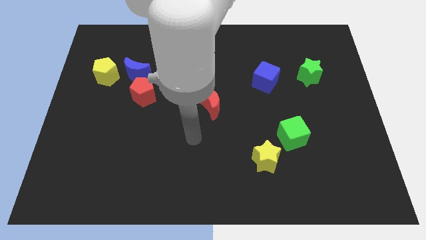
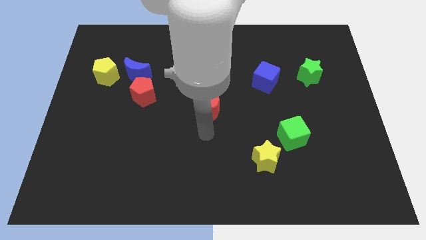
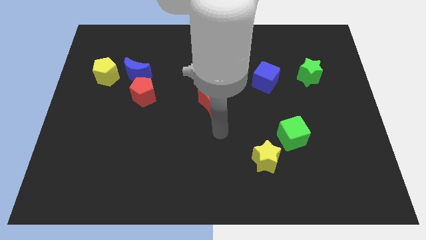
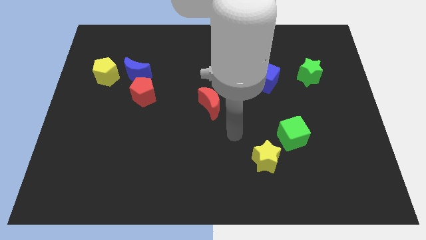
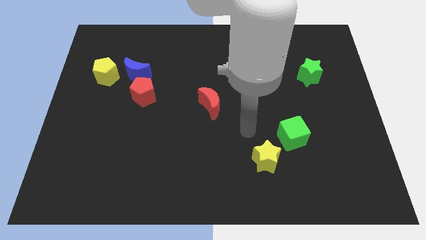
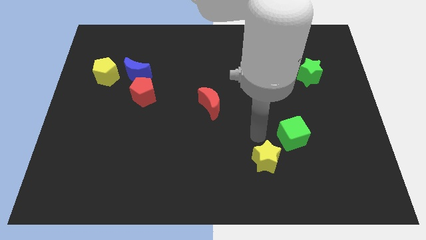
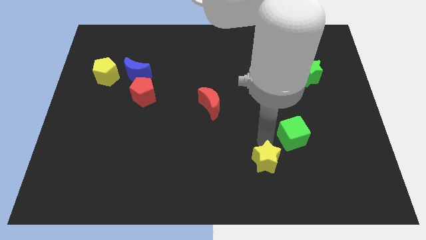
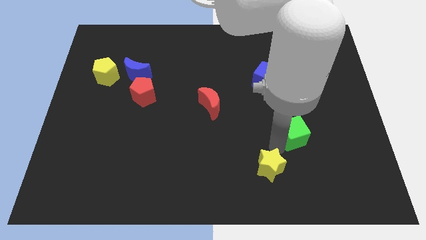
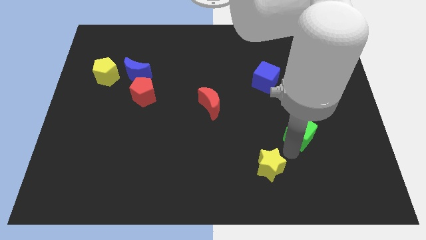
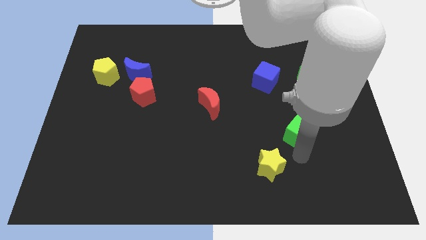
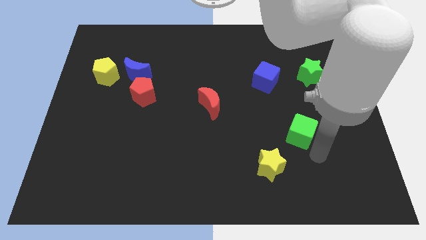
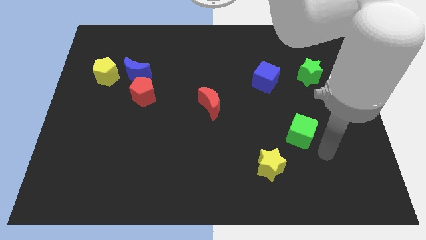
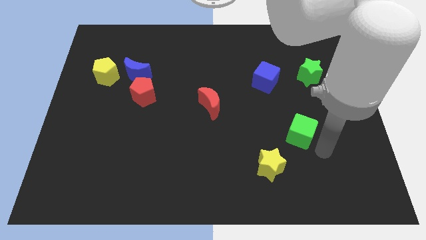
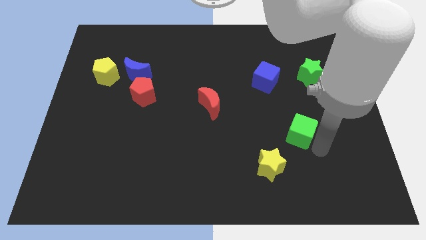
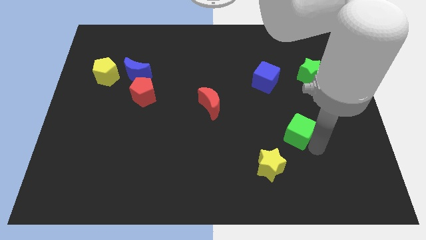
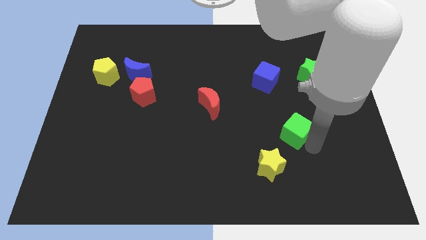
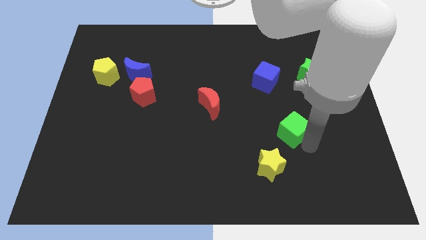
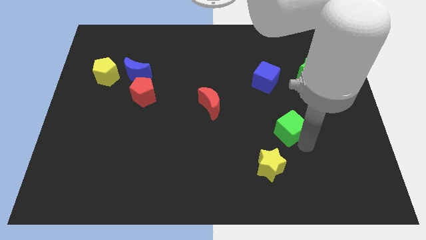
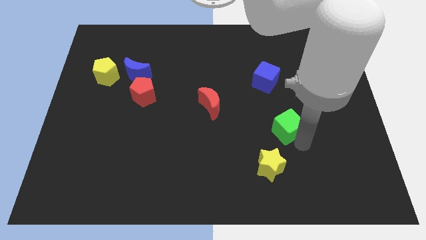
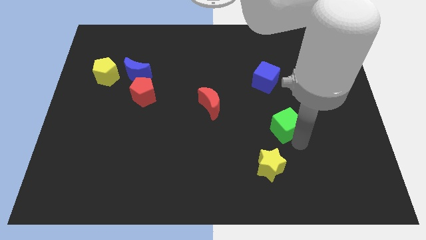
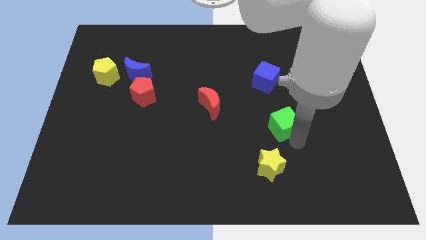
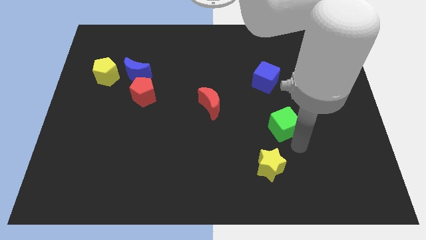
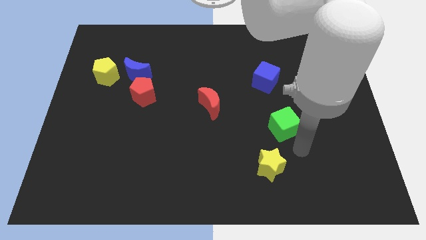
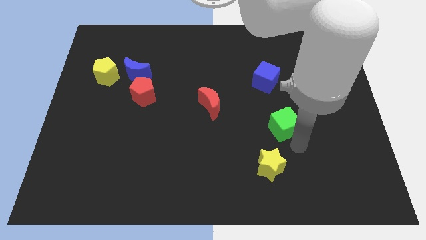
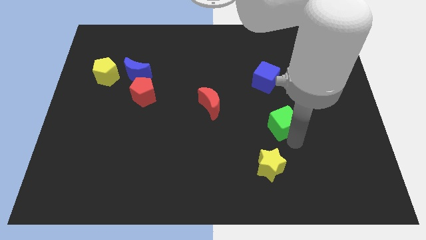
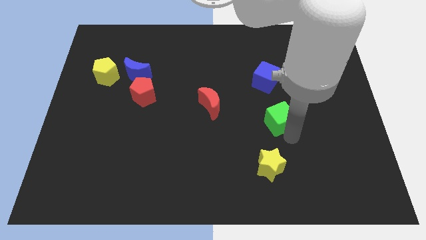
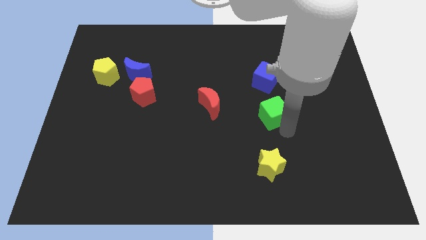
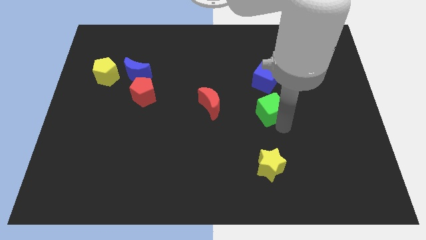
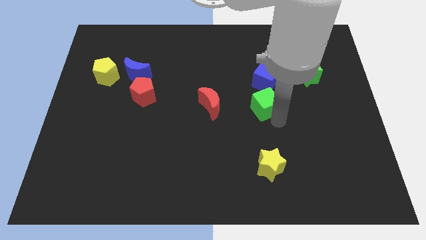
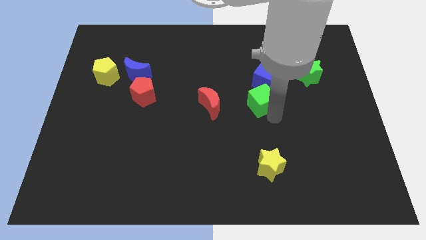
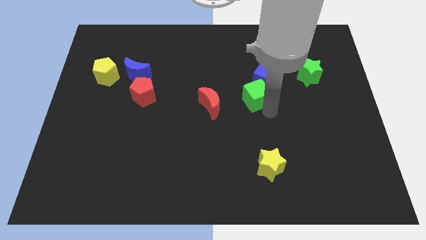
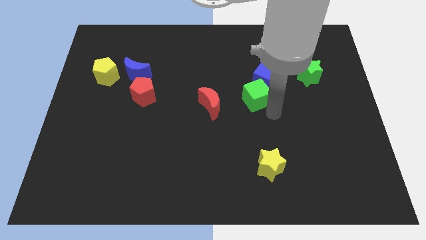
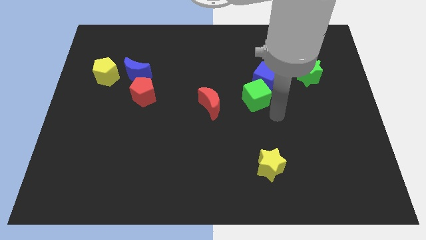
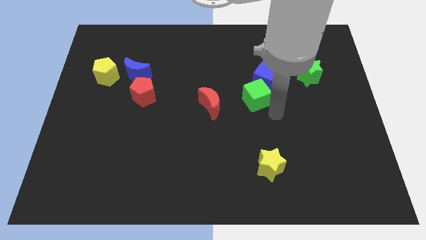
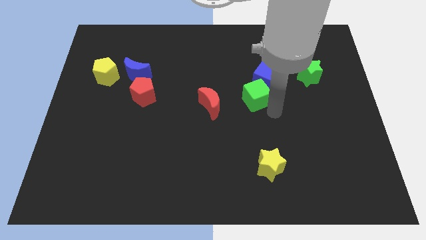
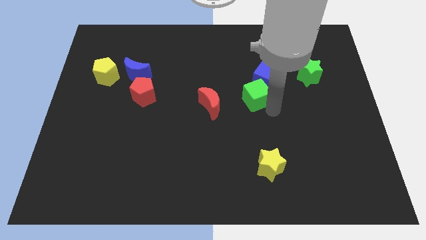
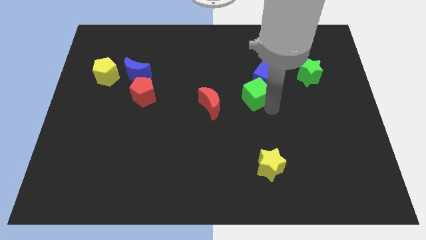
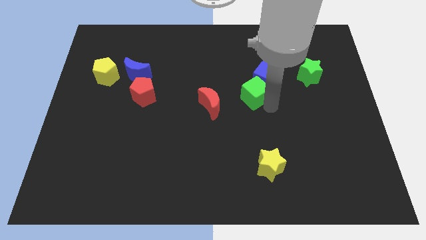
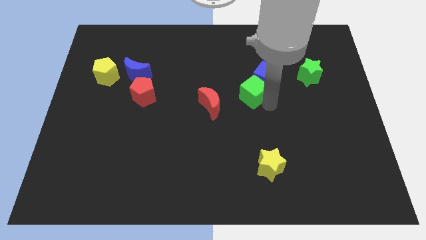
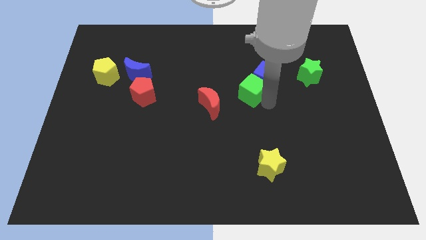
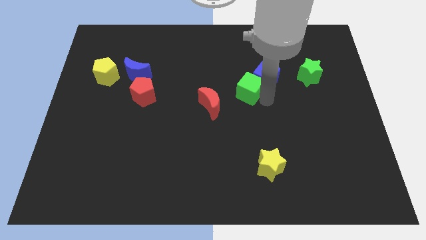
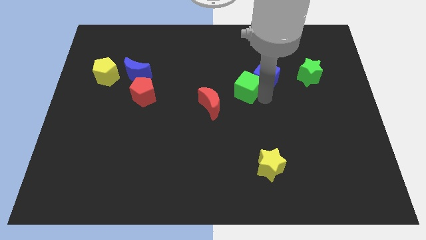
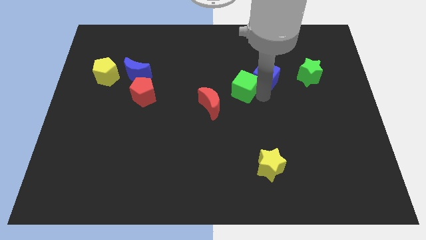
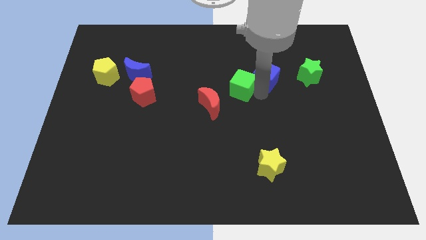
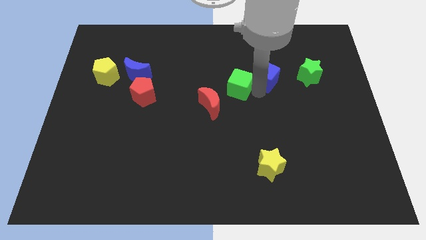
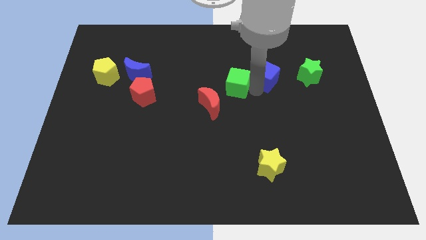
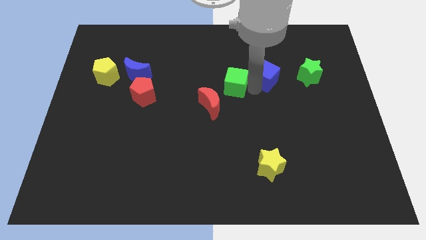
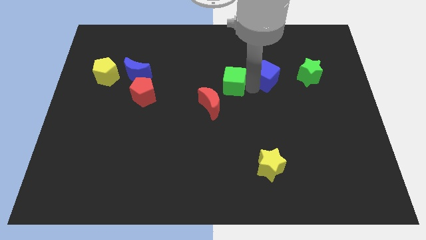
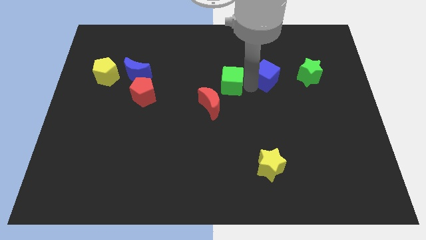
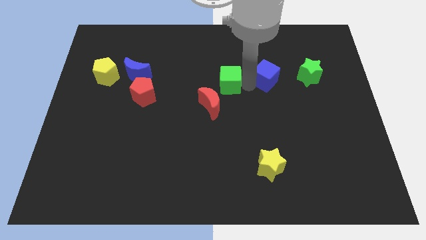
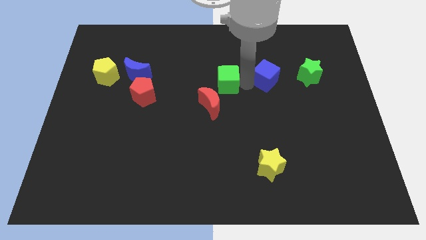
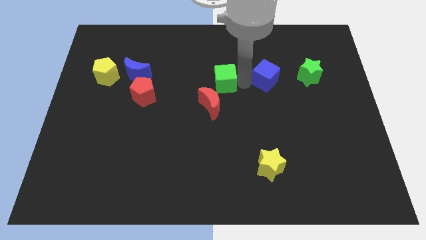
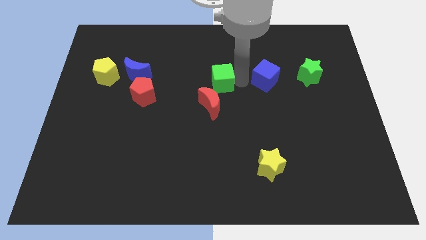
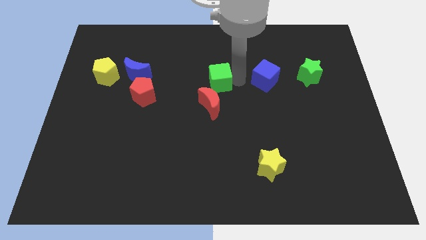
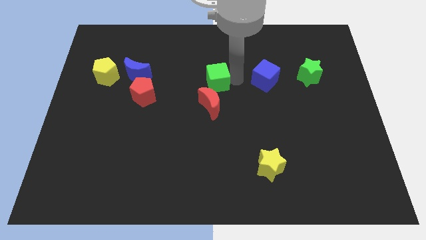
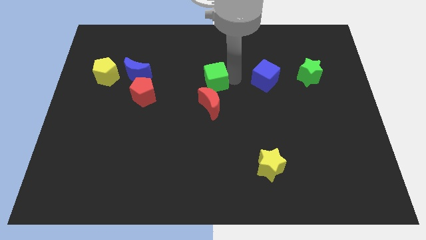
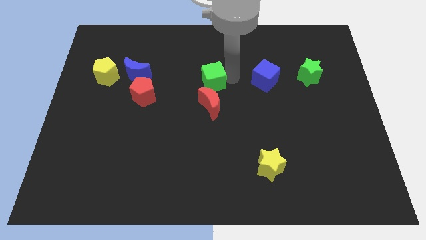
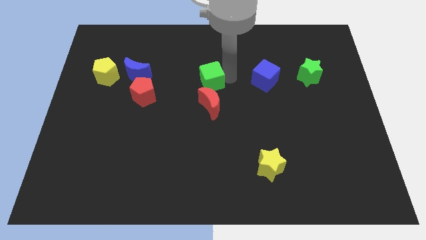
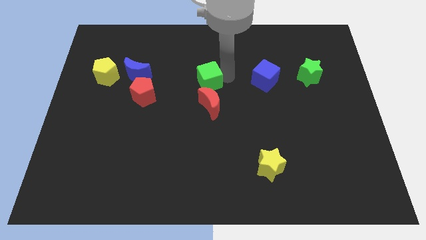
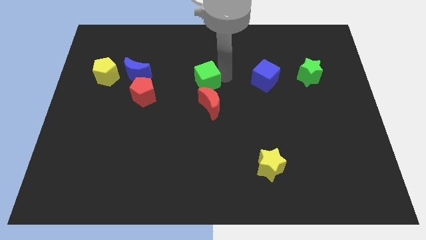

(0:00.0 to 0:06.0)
push the green cube to the top left side of the red moon

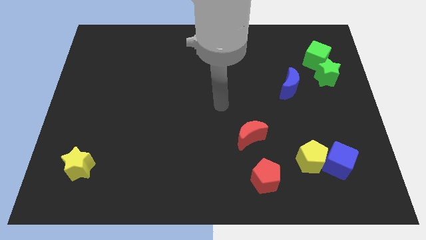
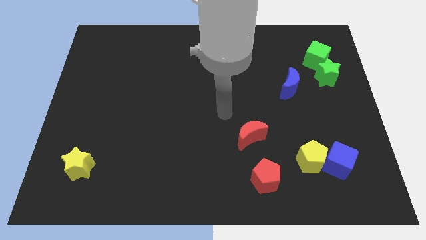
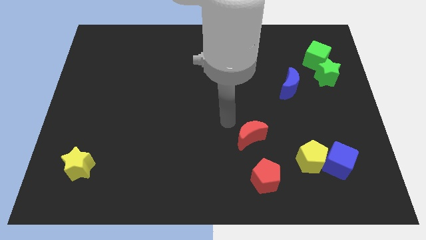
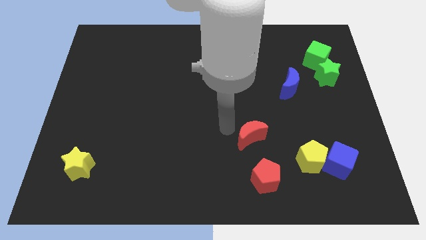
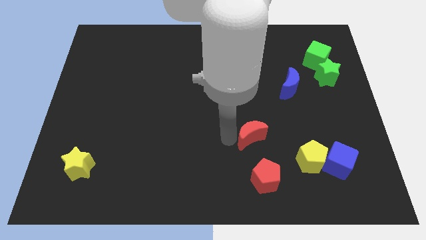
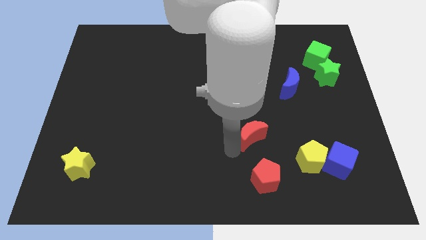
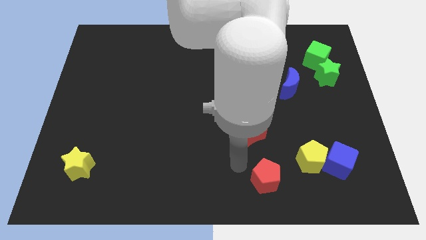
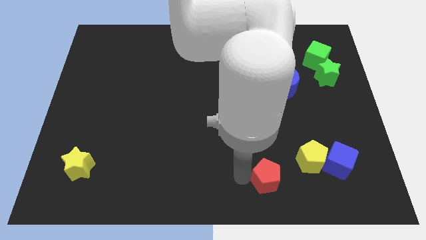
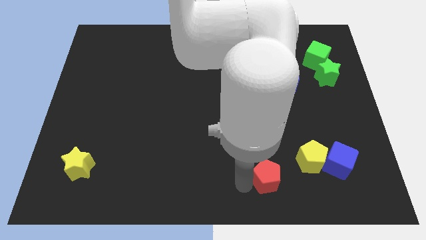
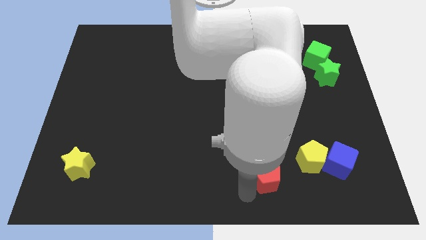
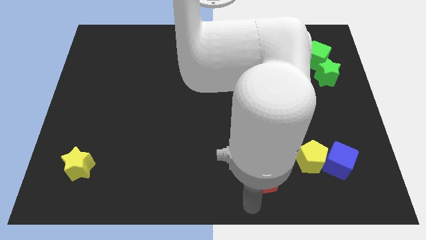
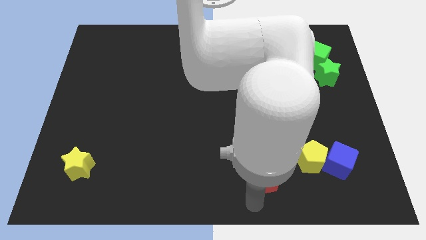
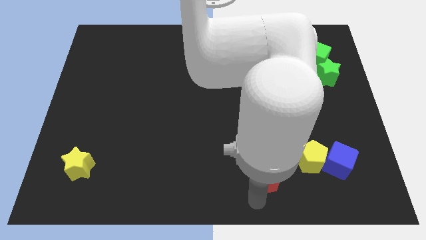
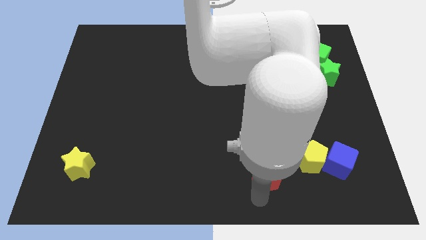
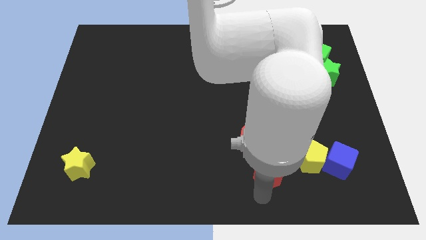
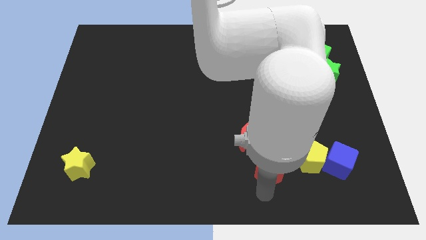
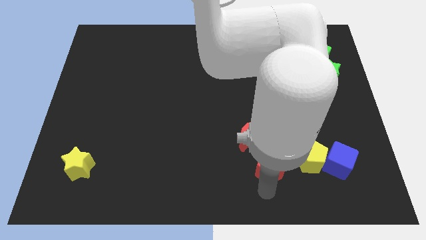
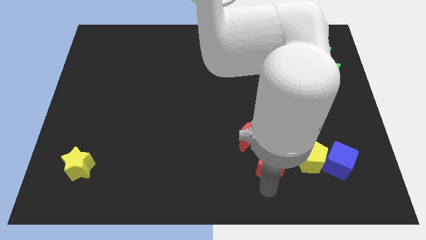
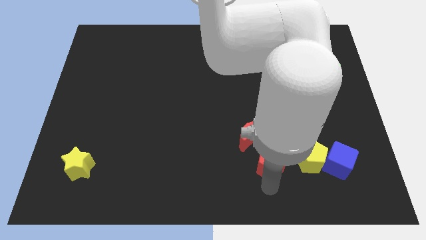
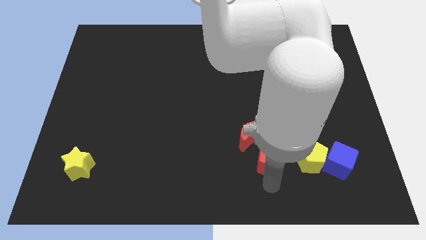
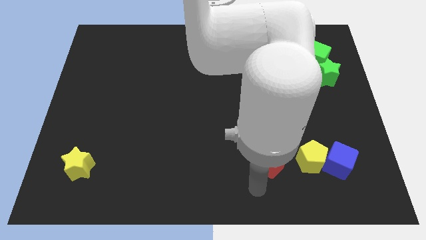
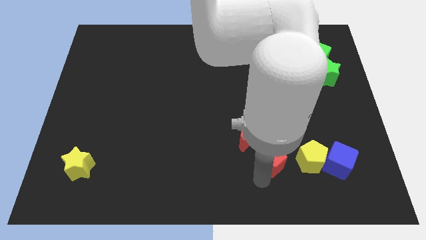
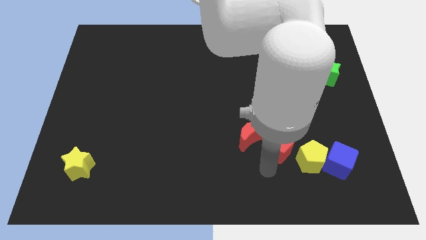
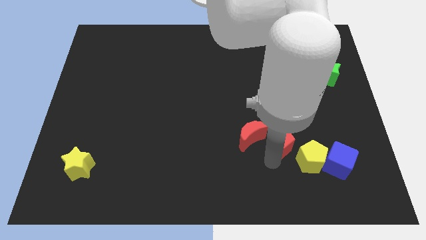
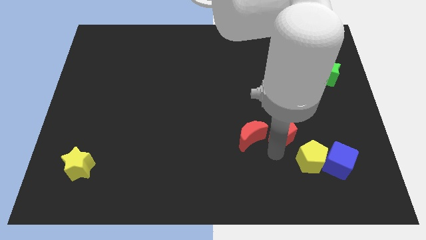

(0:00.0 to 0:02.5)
move the red pentagon to the bottom side of the blue moon
